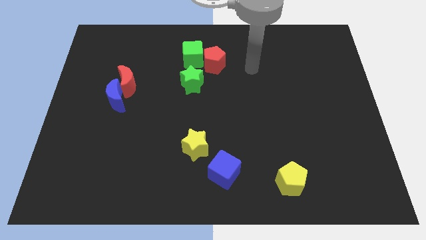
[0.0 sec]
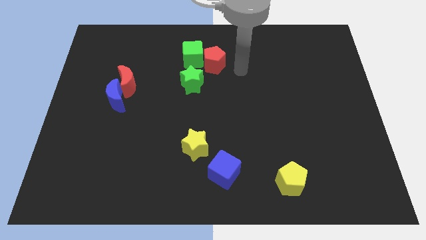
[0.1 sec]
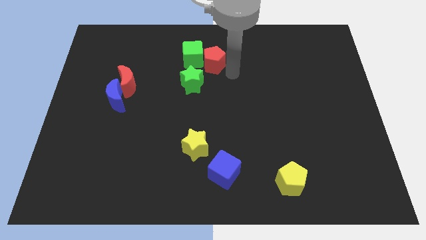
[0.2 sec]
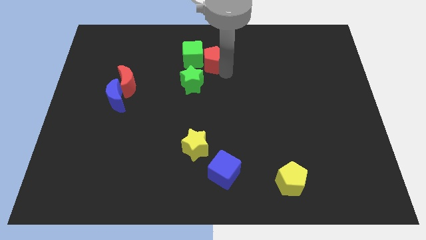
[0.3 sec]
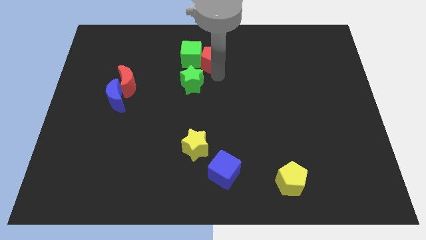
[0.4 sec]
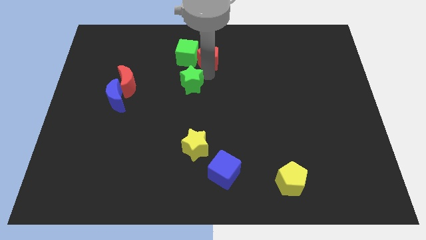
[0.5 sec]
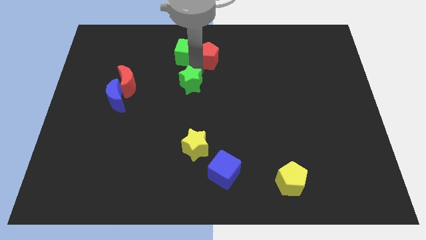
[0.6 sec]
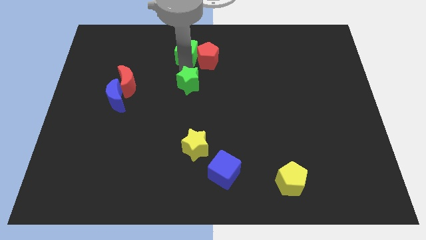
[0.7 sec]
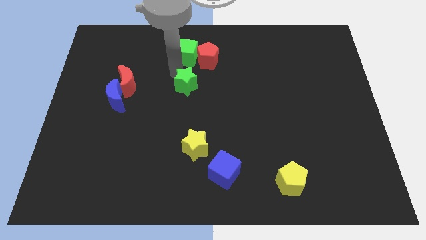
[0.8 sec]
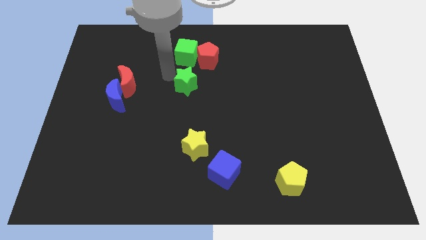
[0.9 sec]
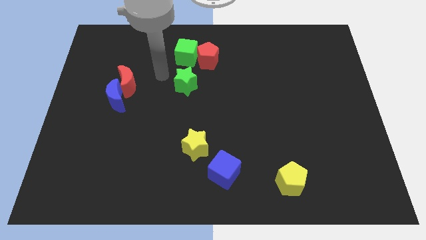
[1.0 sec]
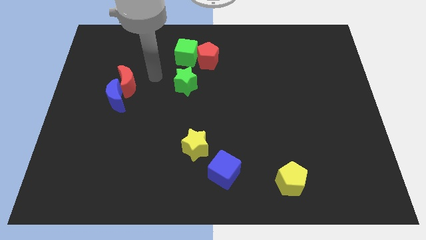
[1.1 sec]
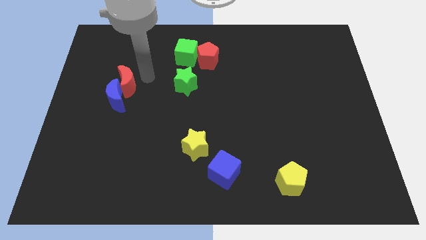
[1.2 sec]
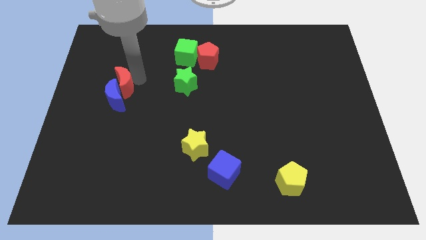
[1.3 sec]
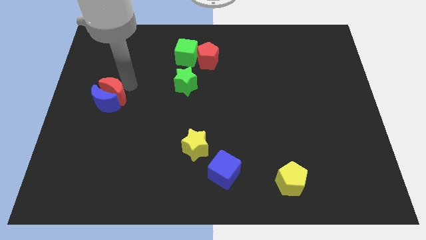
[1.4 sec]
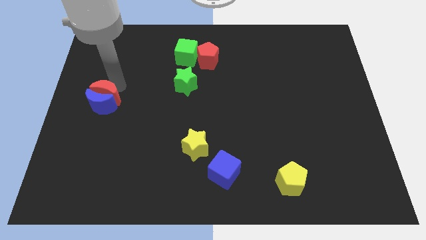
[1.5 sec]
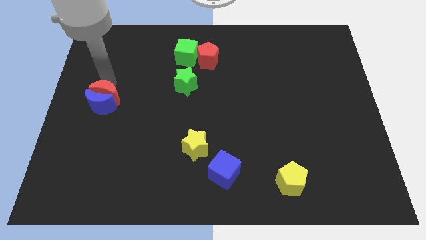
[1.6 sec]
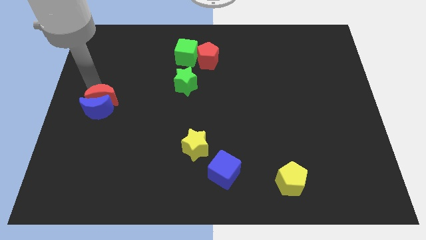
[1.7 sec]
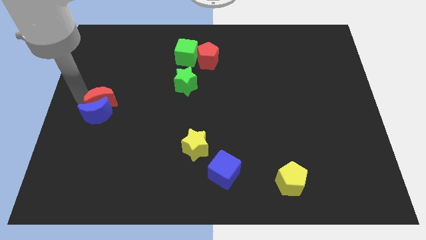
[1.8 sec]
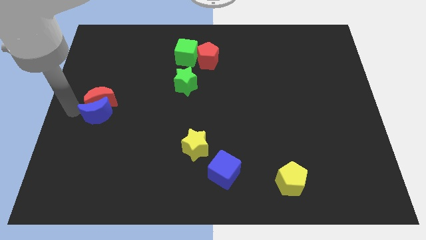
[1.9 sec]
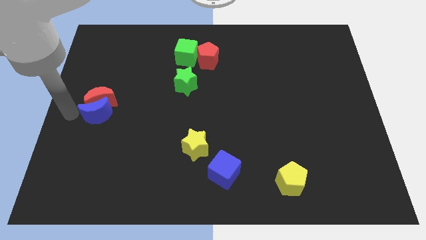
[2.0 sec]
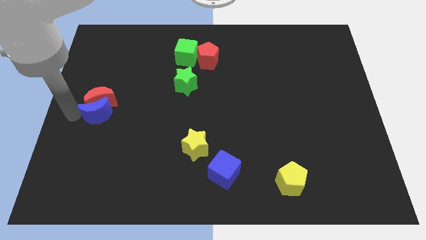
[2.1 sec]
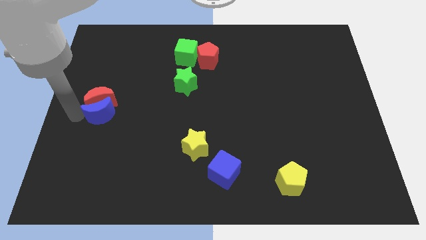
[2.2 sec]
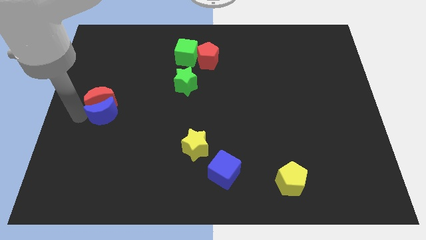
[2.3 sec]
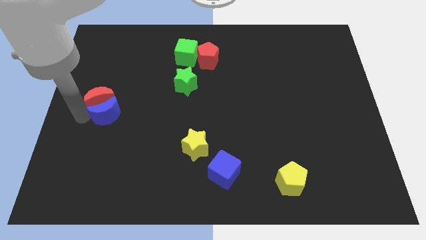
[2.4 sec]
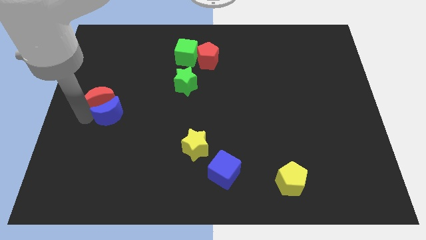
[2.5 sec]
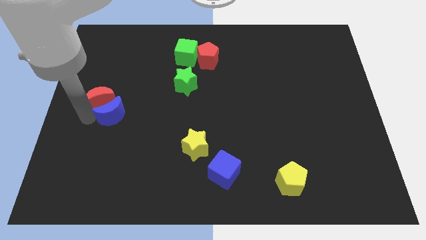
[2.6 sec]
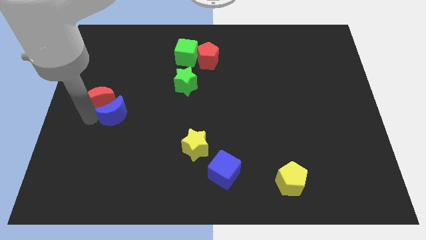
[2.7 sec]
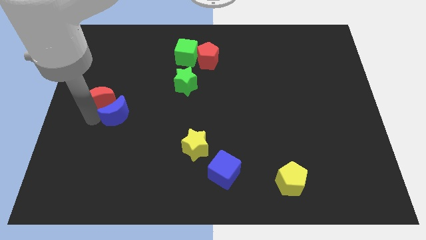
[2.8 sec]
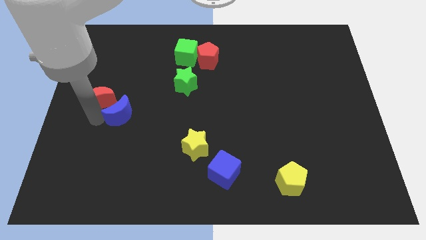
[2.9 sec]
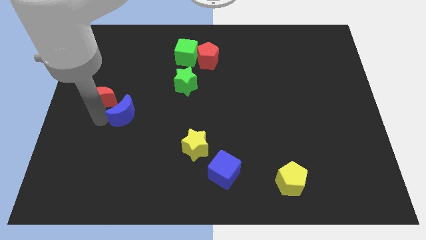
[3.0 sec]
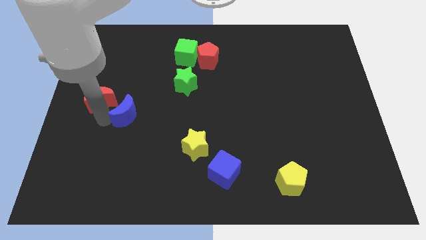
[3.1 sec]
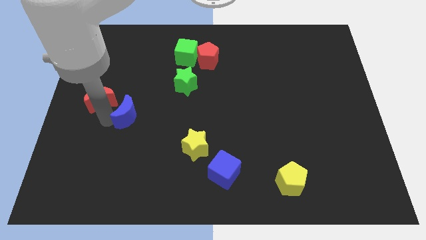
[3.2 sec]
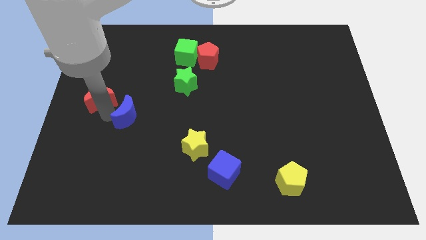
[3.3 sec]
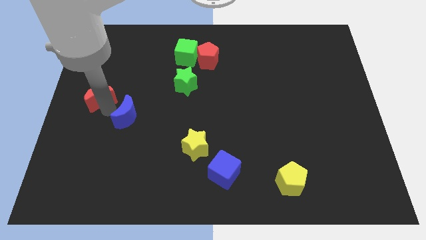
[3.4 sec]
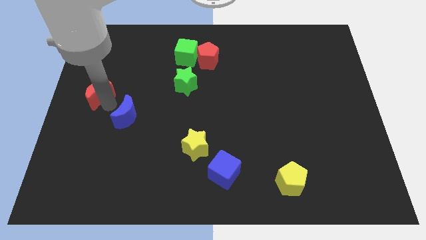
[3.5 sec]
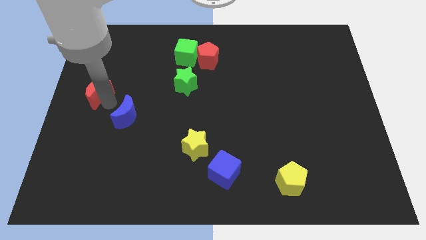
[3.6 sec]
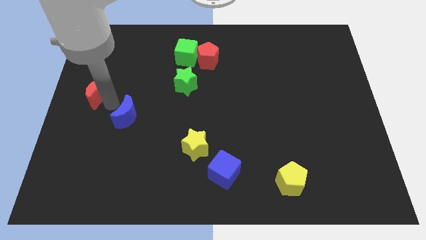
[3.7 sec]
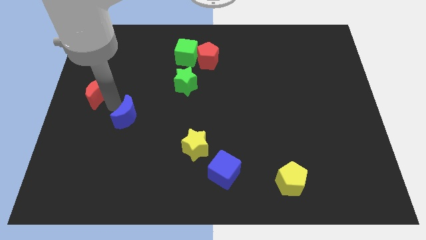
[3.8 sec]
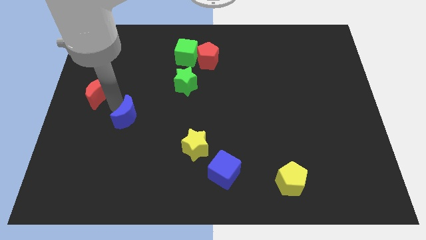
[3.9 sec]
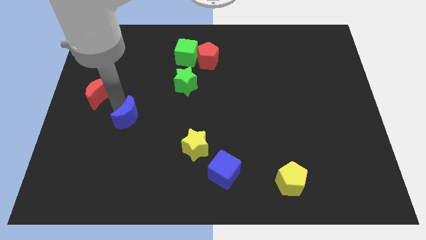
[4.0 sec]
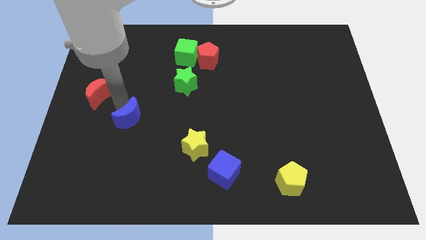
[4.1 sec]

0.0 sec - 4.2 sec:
push the blue moon downwards and right slightly

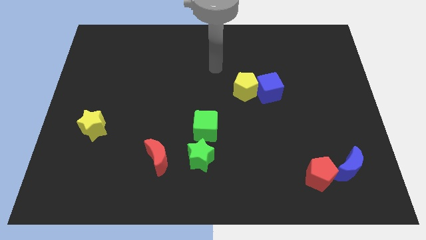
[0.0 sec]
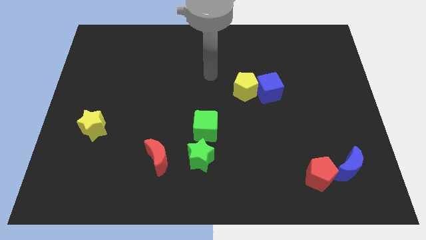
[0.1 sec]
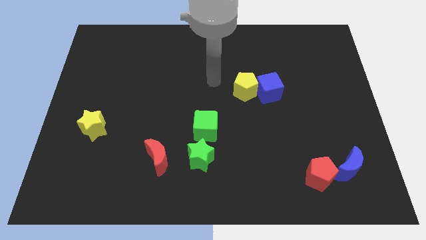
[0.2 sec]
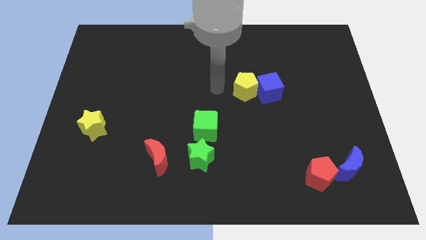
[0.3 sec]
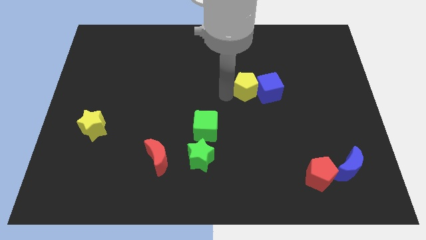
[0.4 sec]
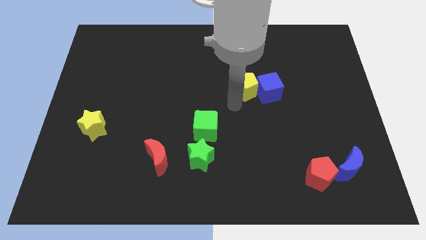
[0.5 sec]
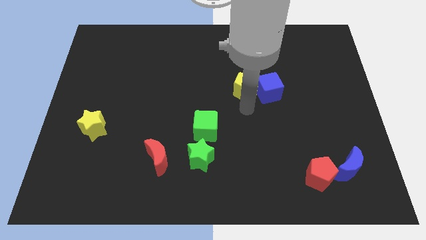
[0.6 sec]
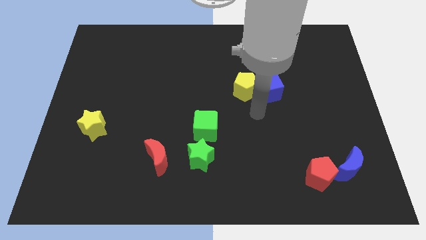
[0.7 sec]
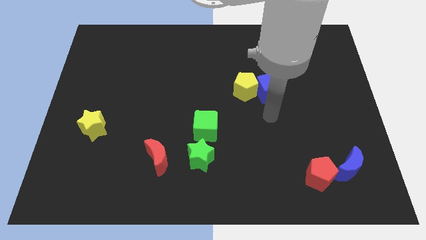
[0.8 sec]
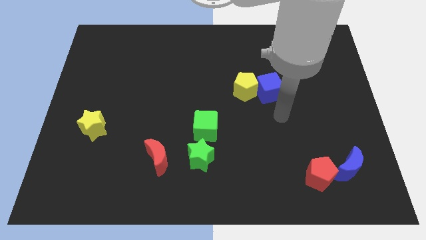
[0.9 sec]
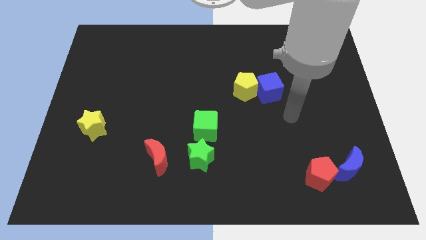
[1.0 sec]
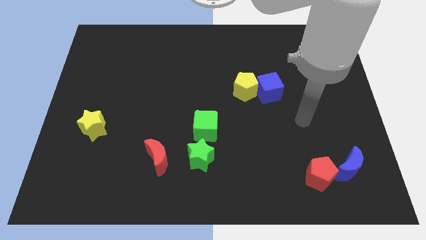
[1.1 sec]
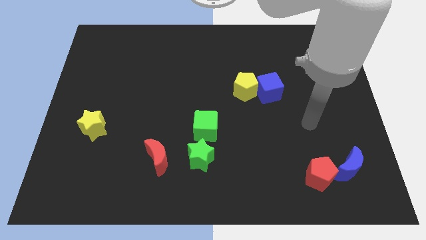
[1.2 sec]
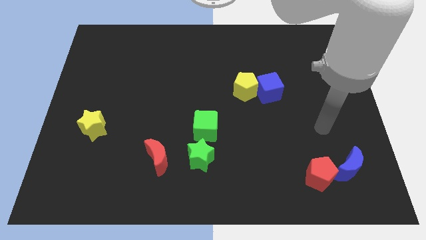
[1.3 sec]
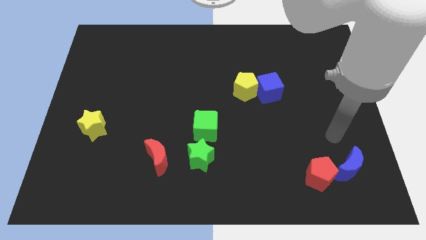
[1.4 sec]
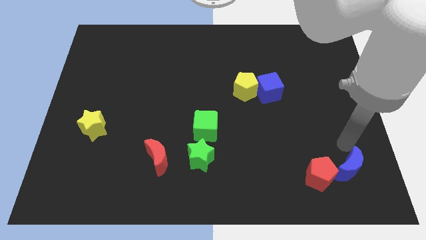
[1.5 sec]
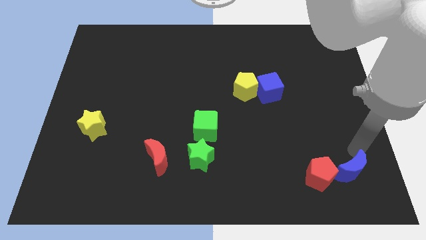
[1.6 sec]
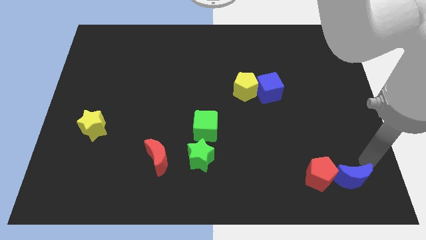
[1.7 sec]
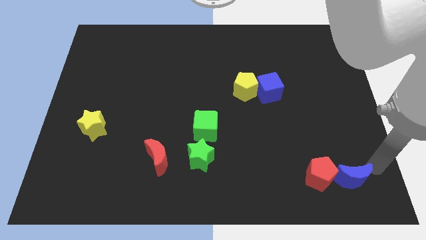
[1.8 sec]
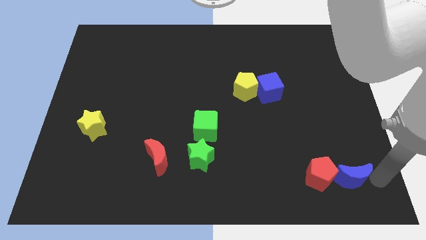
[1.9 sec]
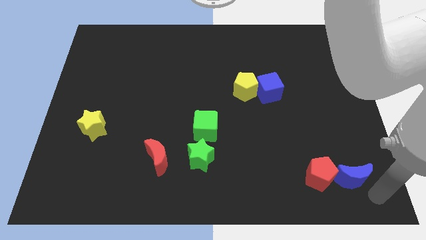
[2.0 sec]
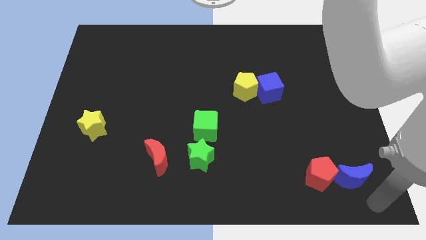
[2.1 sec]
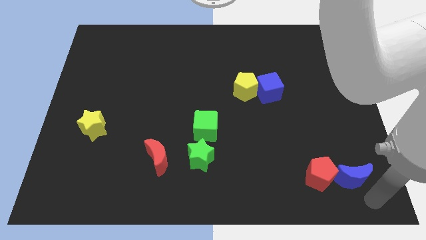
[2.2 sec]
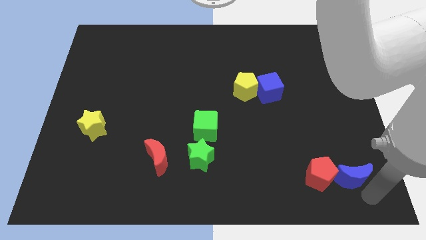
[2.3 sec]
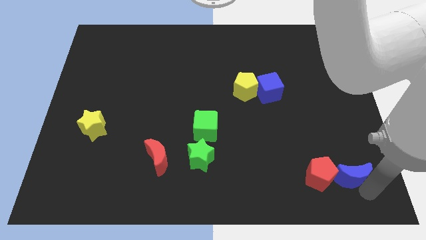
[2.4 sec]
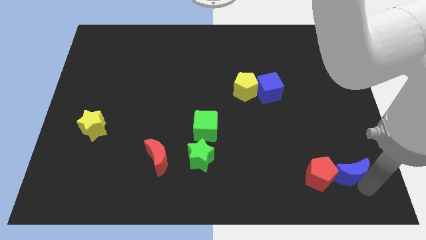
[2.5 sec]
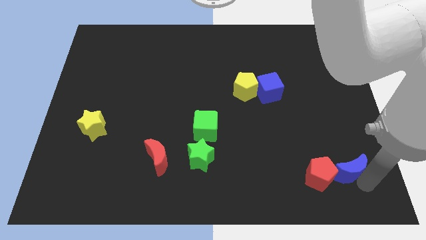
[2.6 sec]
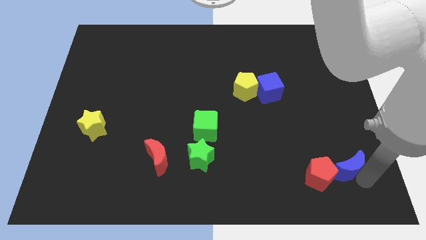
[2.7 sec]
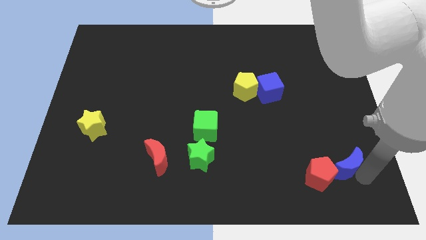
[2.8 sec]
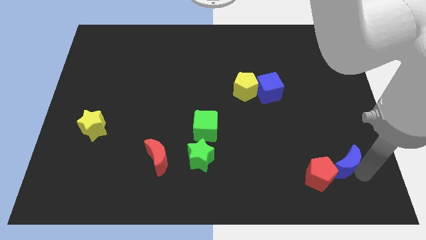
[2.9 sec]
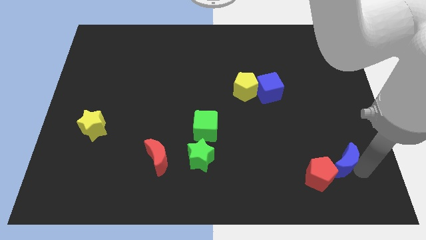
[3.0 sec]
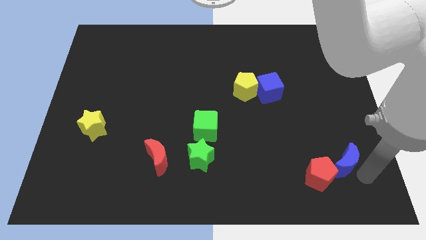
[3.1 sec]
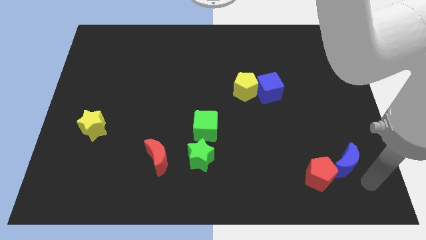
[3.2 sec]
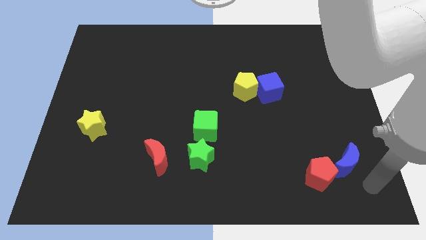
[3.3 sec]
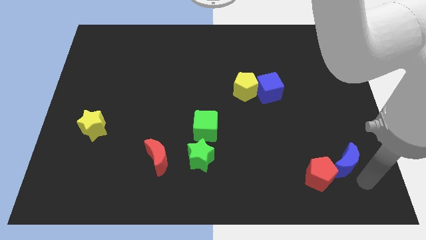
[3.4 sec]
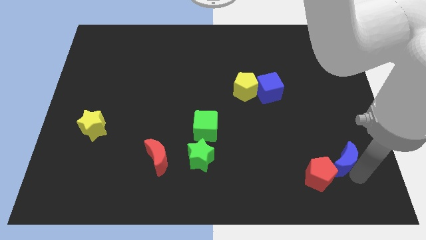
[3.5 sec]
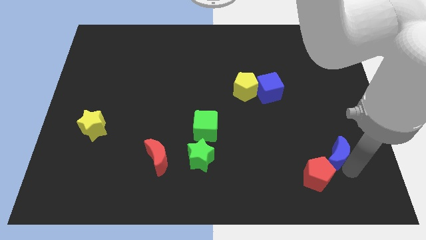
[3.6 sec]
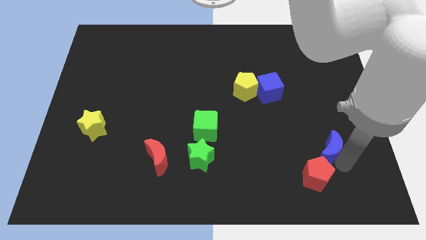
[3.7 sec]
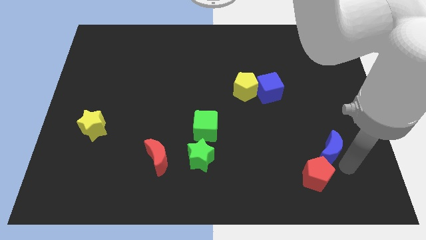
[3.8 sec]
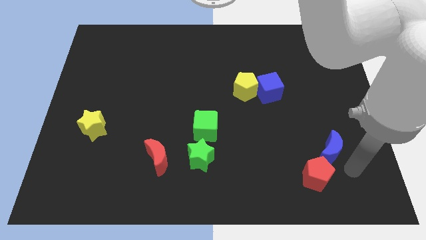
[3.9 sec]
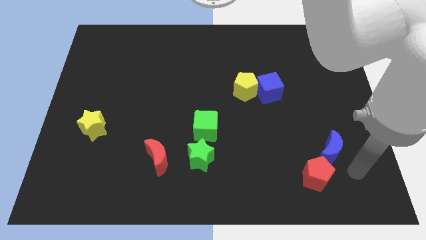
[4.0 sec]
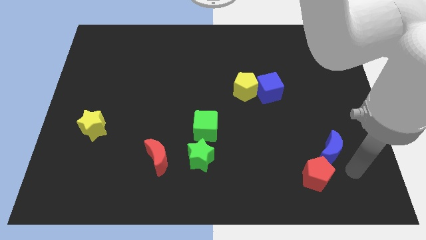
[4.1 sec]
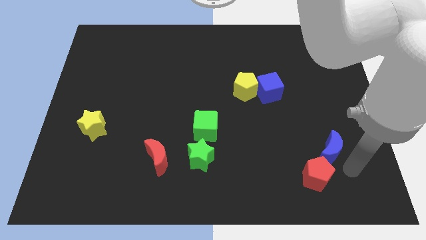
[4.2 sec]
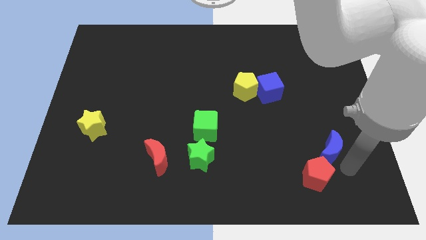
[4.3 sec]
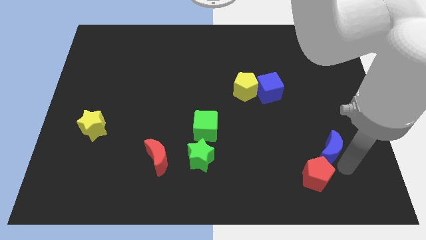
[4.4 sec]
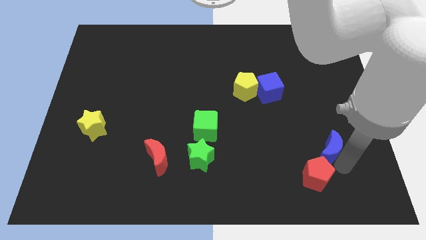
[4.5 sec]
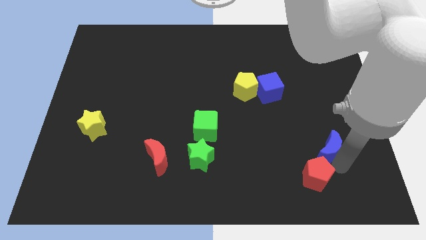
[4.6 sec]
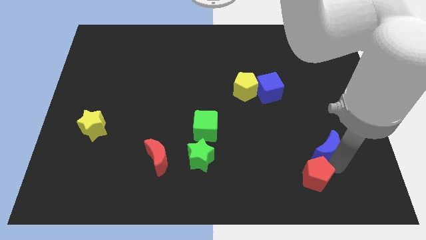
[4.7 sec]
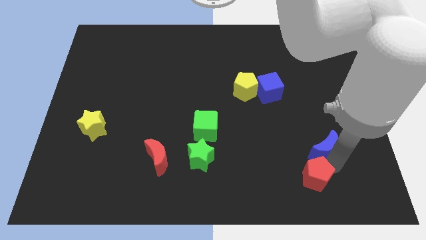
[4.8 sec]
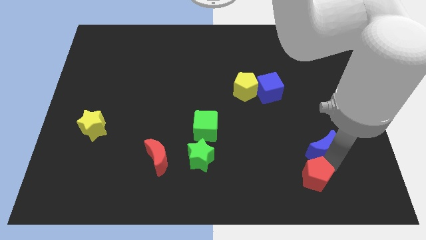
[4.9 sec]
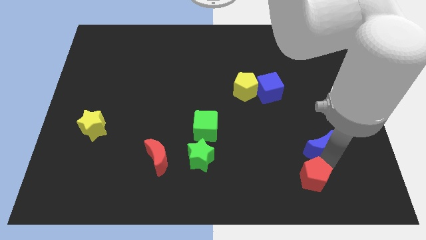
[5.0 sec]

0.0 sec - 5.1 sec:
slightly slide the blue moon up and to the left
